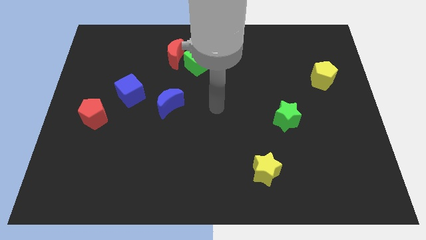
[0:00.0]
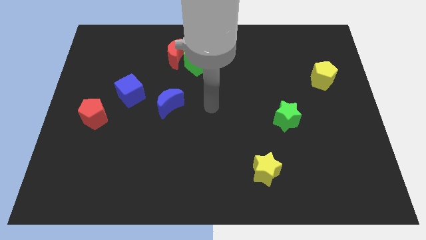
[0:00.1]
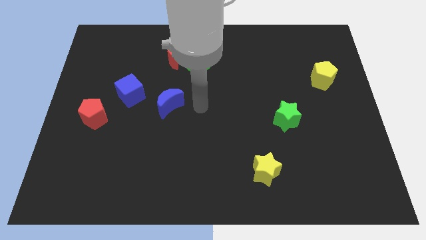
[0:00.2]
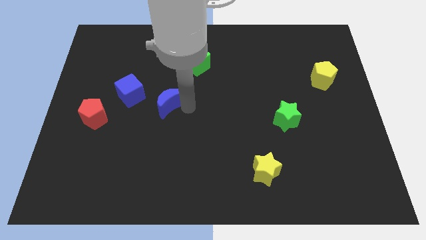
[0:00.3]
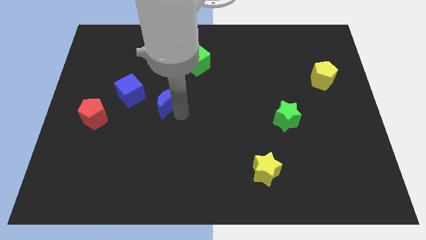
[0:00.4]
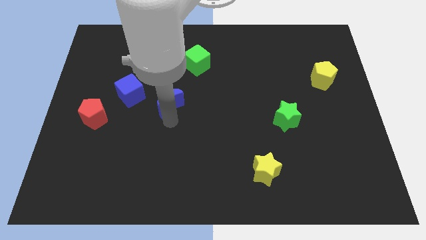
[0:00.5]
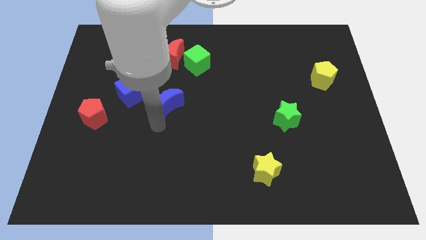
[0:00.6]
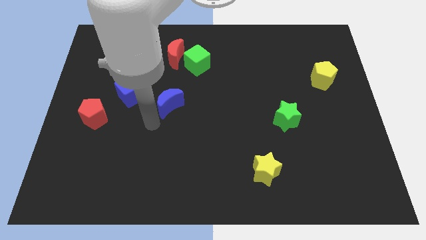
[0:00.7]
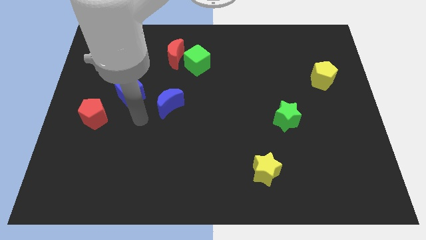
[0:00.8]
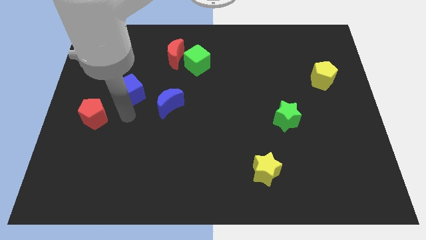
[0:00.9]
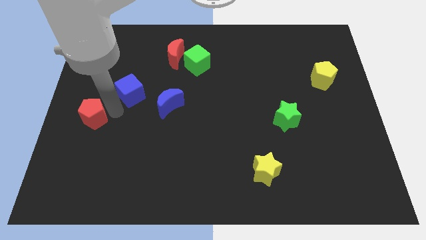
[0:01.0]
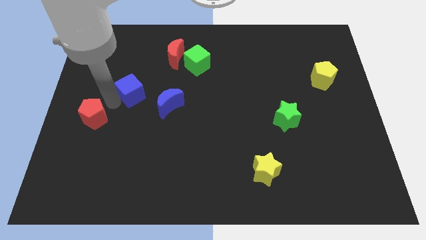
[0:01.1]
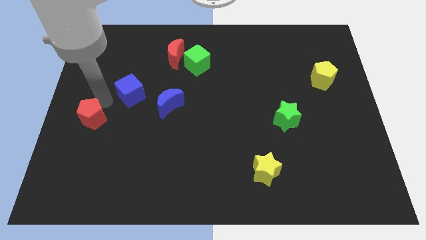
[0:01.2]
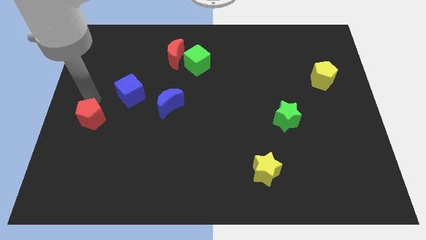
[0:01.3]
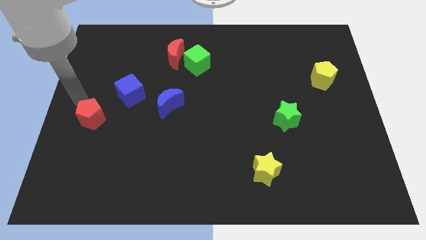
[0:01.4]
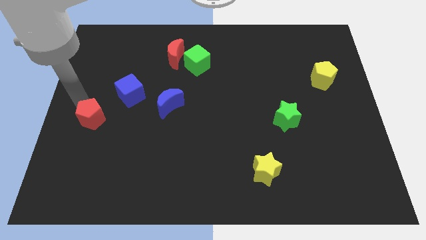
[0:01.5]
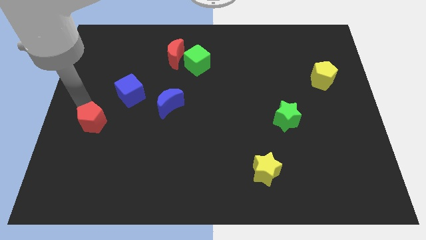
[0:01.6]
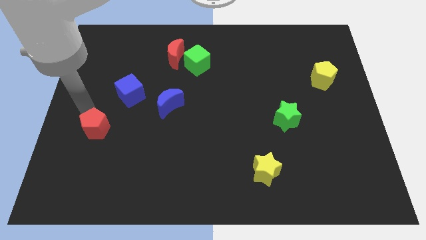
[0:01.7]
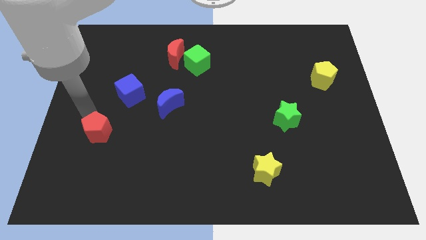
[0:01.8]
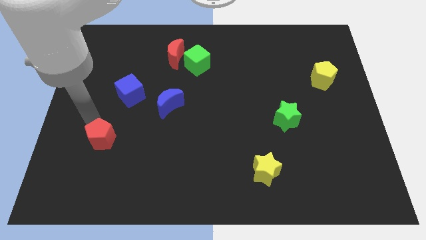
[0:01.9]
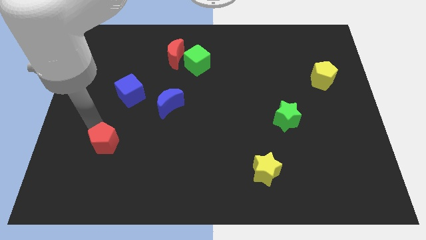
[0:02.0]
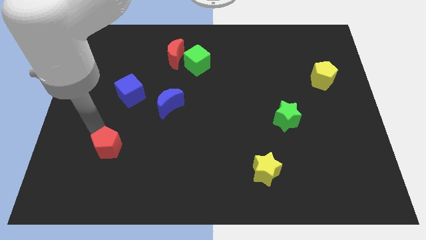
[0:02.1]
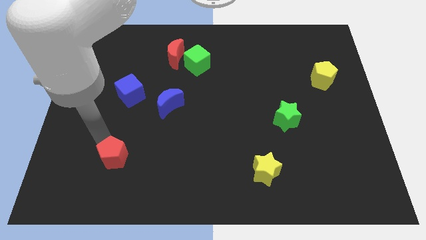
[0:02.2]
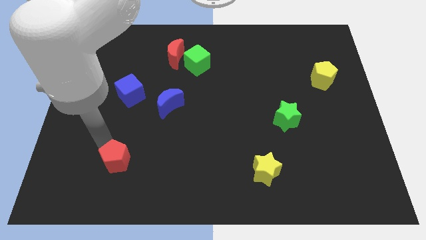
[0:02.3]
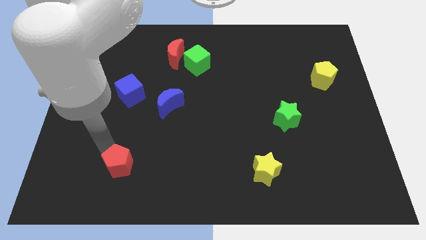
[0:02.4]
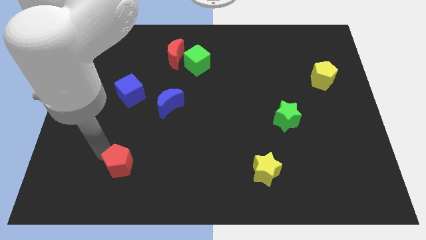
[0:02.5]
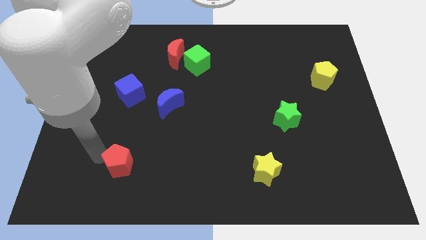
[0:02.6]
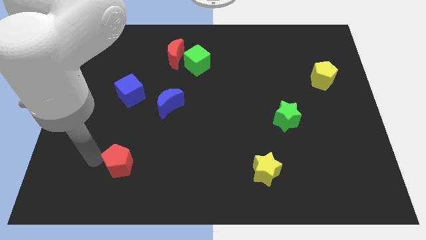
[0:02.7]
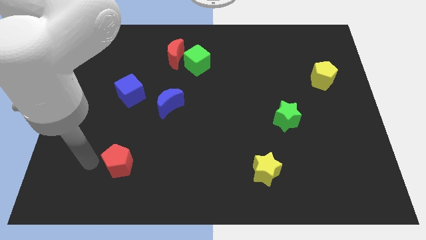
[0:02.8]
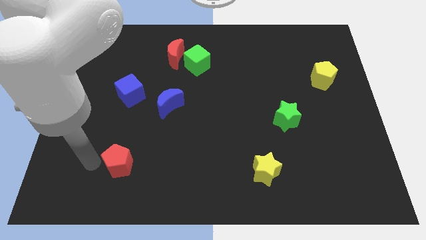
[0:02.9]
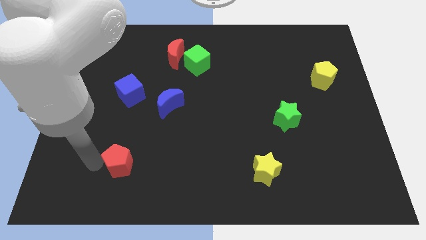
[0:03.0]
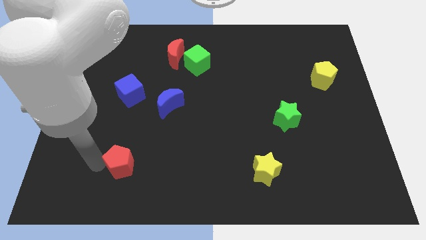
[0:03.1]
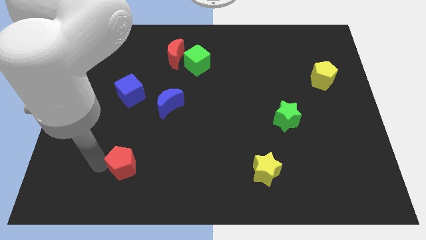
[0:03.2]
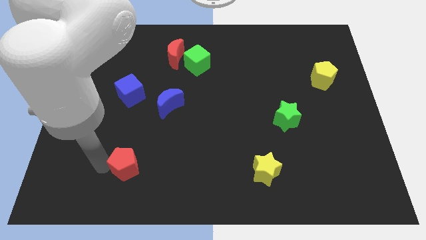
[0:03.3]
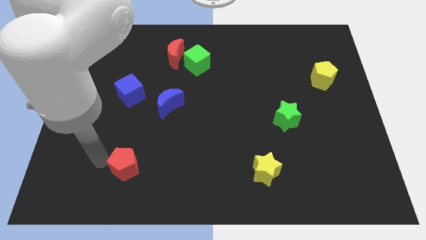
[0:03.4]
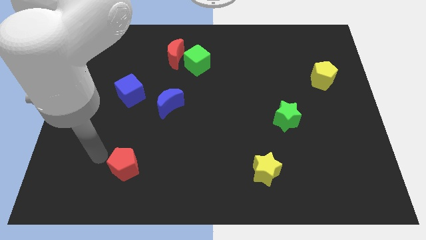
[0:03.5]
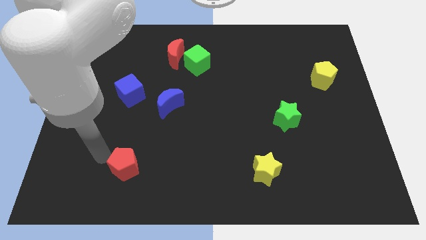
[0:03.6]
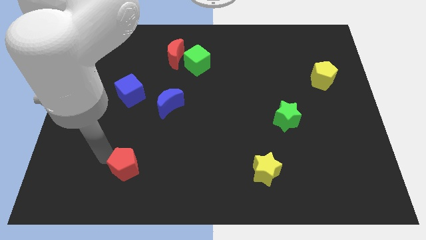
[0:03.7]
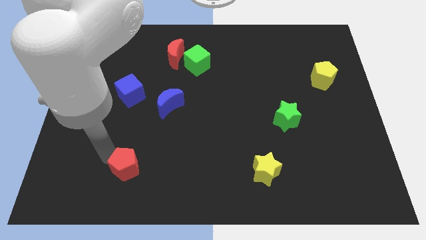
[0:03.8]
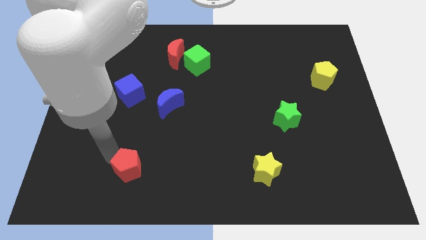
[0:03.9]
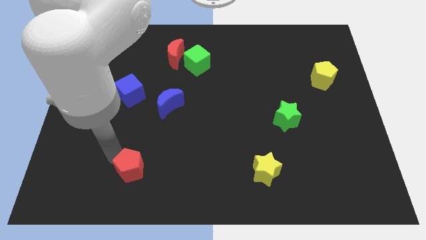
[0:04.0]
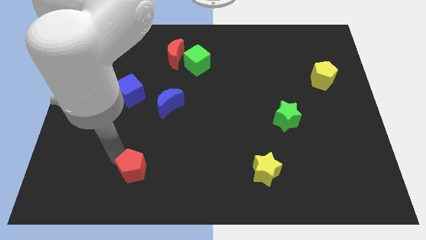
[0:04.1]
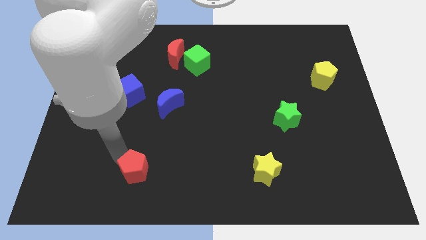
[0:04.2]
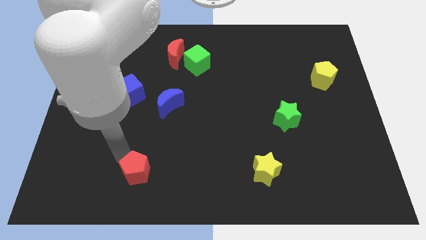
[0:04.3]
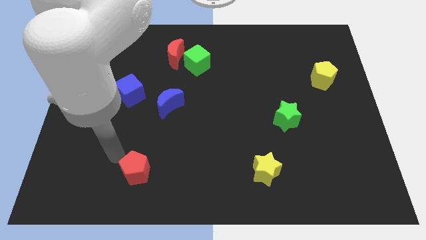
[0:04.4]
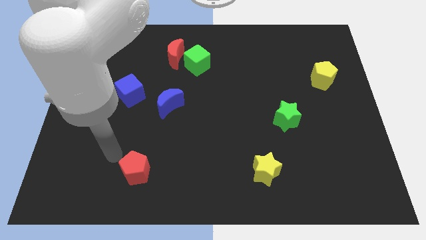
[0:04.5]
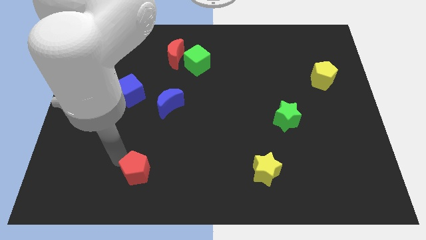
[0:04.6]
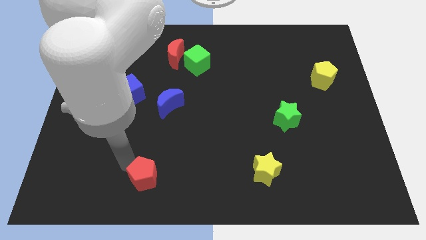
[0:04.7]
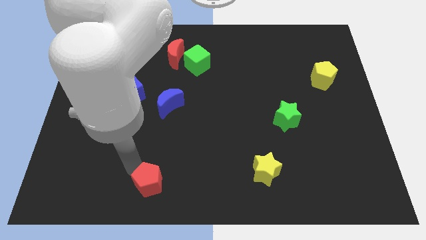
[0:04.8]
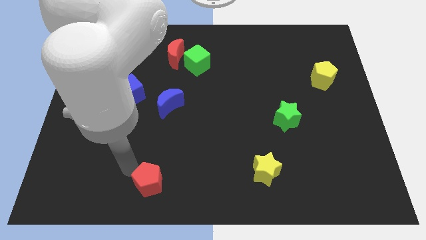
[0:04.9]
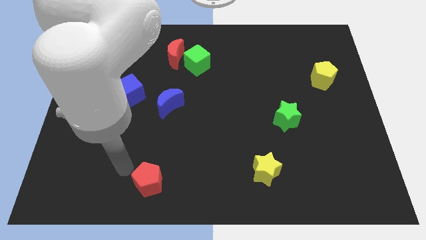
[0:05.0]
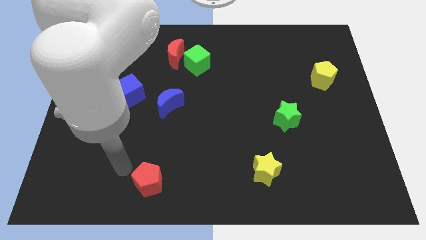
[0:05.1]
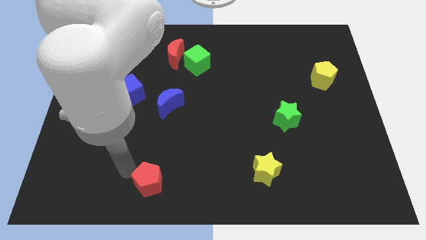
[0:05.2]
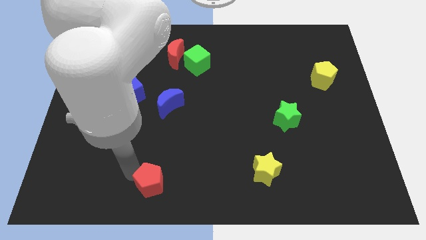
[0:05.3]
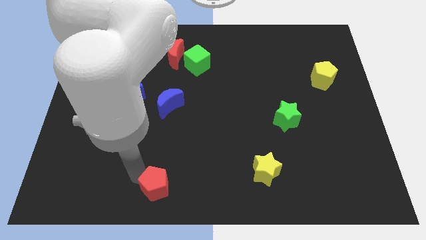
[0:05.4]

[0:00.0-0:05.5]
slide the red pentagon to the bottom side
